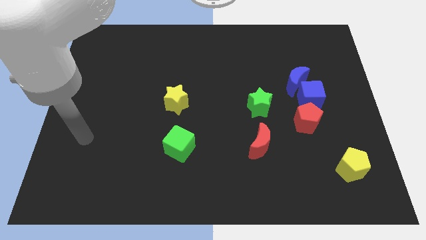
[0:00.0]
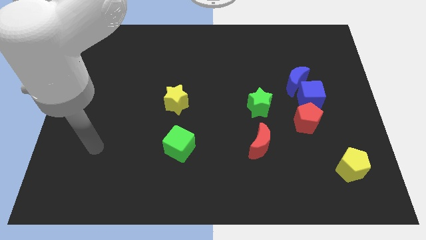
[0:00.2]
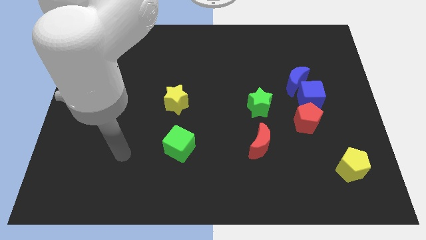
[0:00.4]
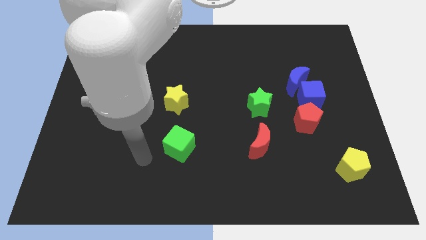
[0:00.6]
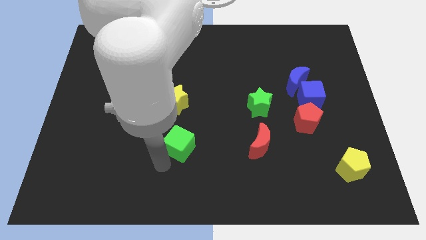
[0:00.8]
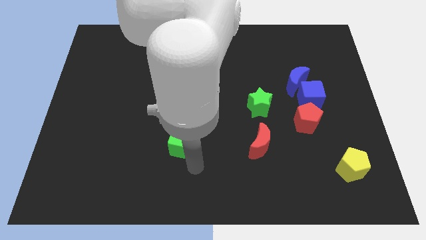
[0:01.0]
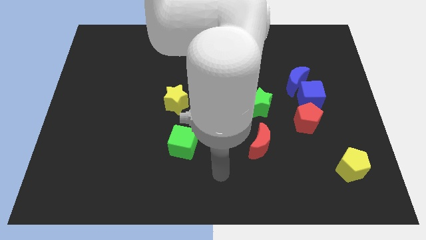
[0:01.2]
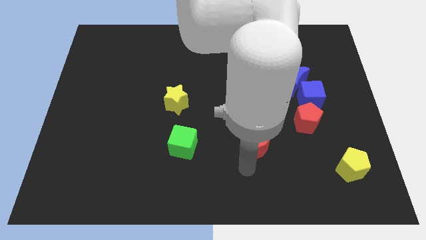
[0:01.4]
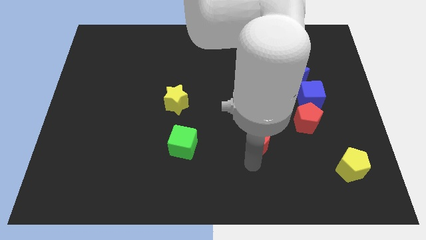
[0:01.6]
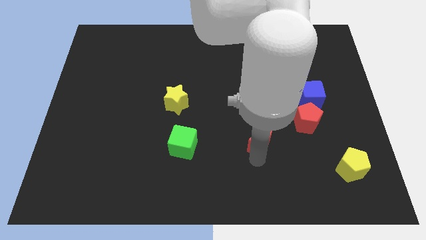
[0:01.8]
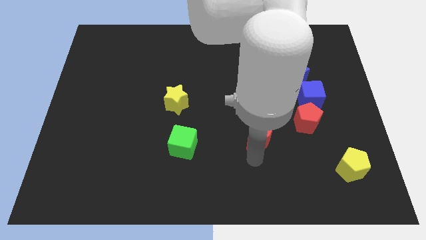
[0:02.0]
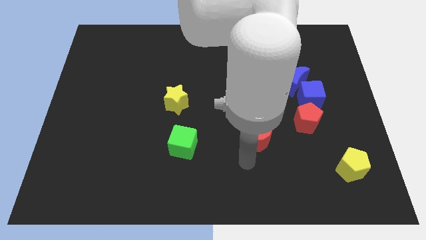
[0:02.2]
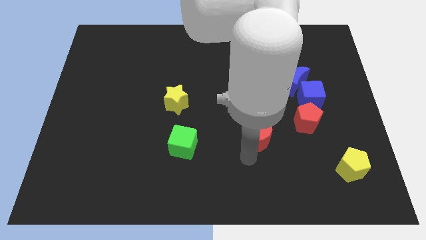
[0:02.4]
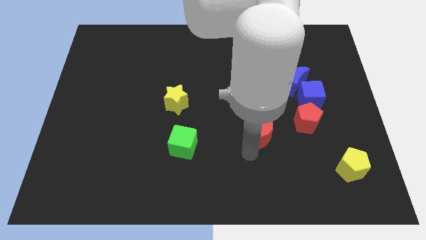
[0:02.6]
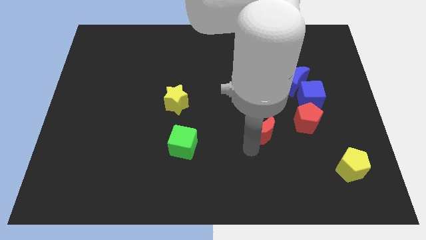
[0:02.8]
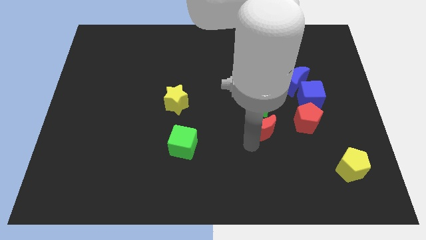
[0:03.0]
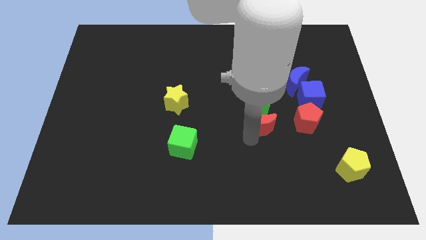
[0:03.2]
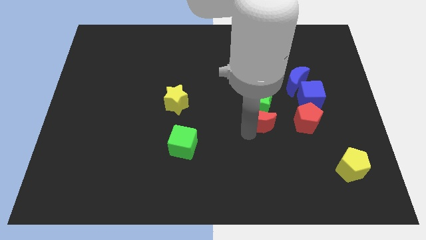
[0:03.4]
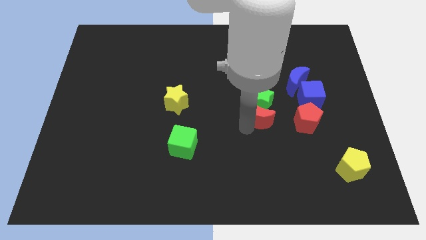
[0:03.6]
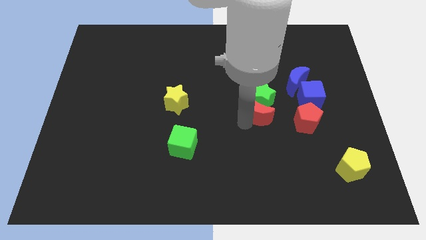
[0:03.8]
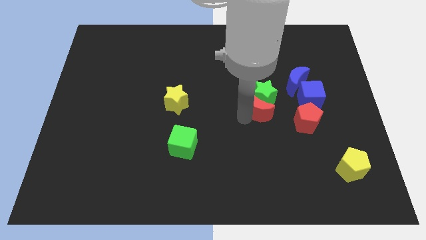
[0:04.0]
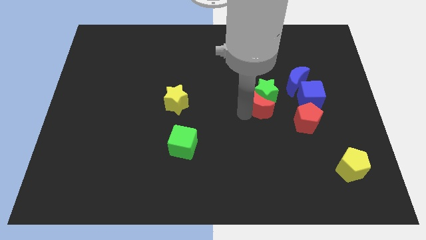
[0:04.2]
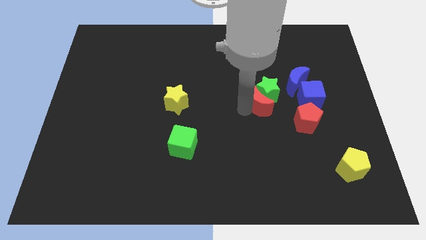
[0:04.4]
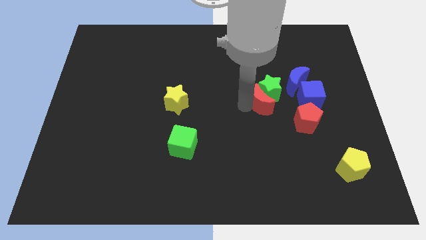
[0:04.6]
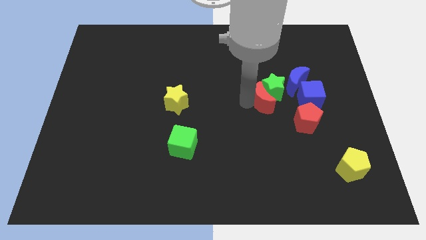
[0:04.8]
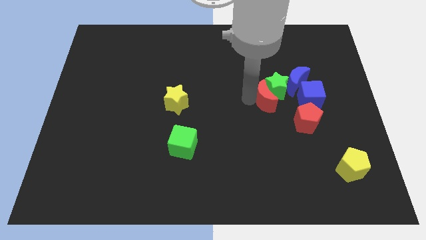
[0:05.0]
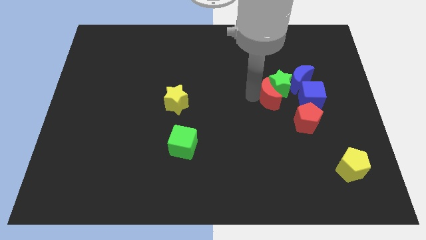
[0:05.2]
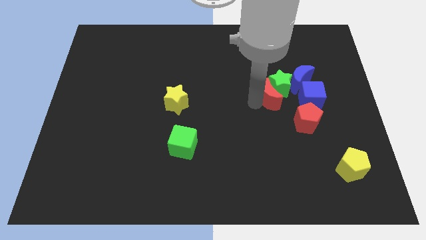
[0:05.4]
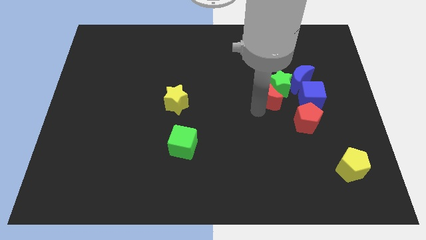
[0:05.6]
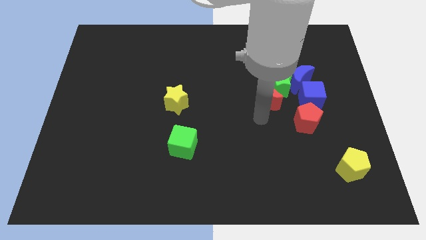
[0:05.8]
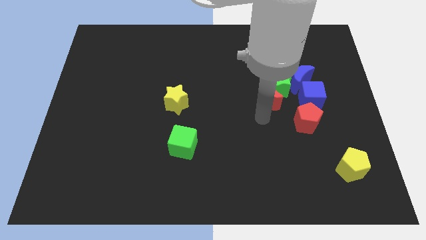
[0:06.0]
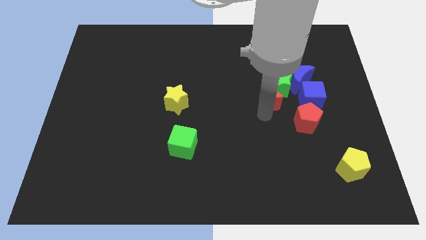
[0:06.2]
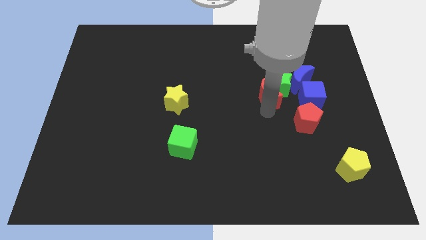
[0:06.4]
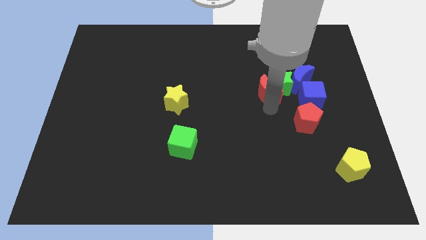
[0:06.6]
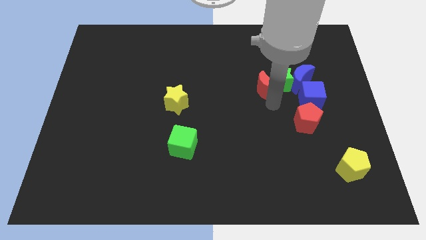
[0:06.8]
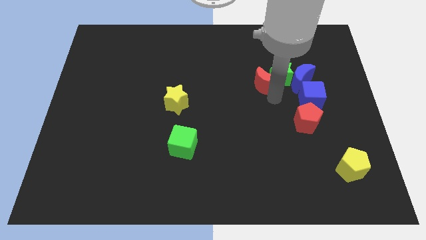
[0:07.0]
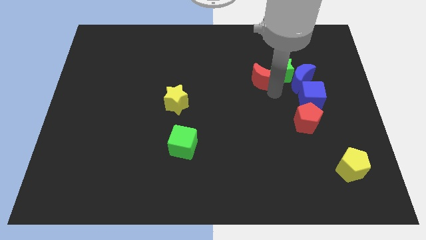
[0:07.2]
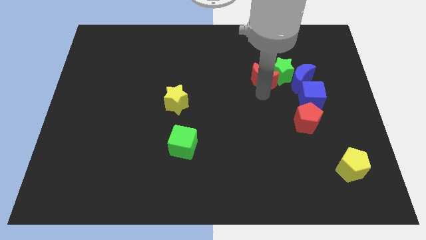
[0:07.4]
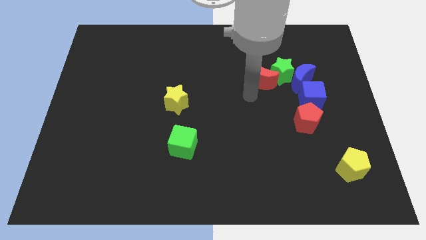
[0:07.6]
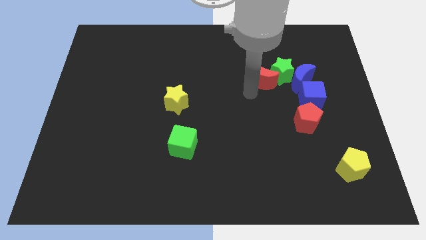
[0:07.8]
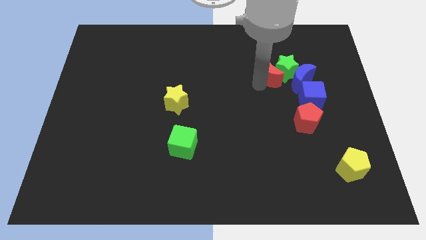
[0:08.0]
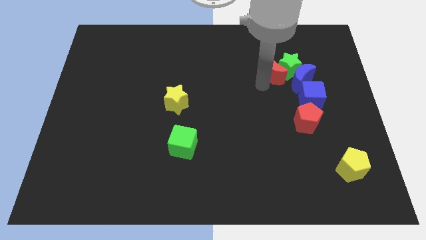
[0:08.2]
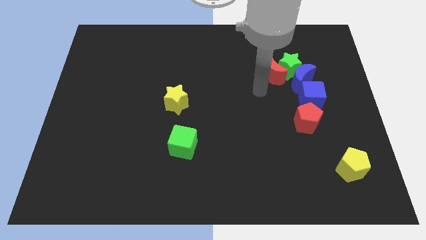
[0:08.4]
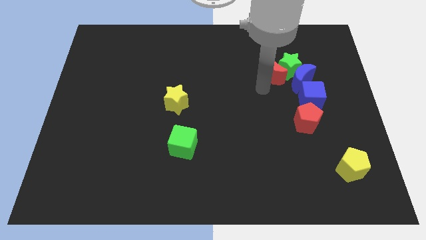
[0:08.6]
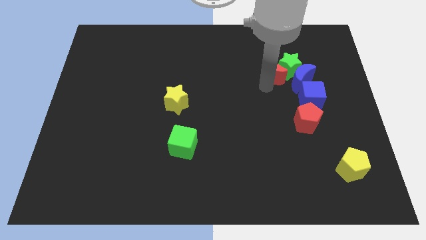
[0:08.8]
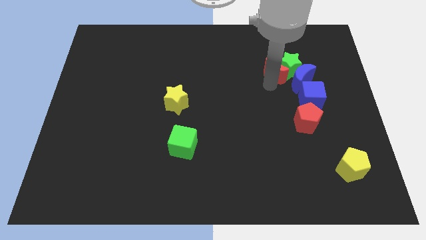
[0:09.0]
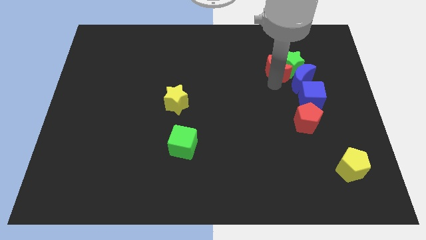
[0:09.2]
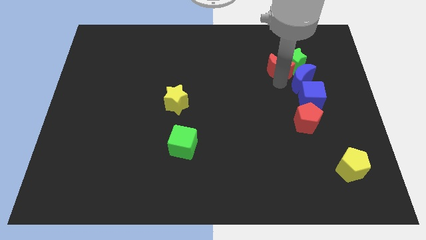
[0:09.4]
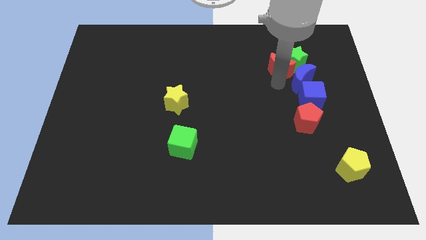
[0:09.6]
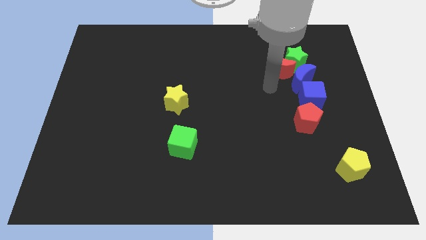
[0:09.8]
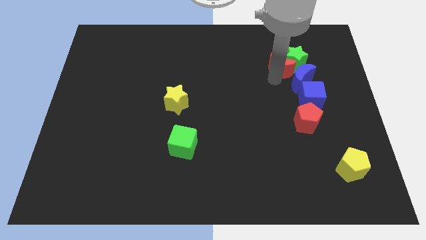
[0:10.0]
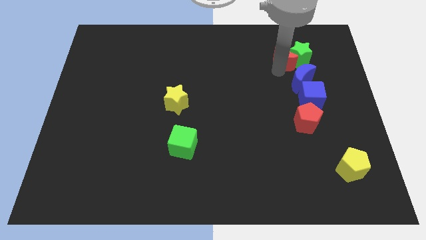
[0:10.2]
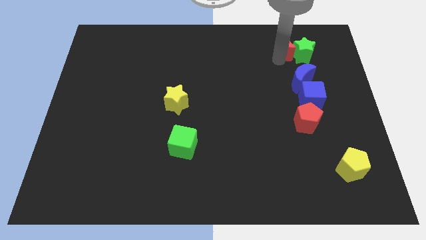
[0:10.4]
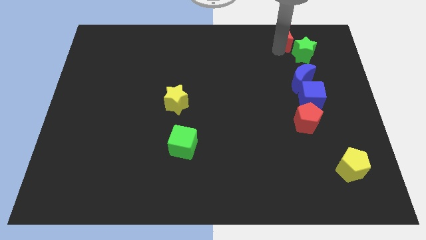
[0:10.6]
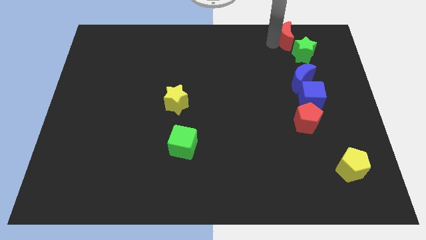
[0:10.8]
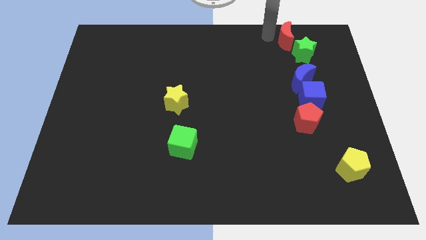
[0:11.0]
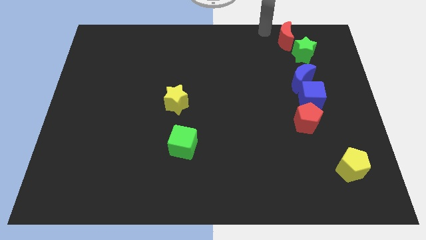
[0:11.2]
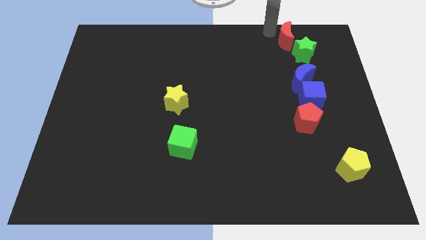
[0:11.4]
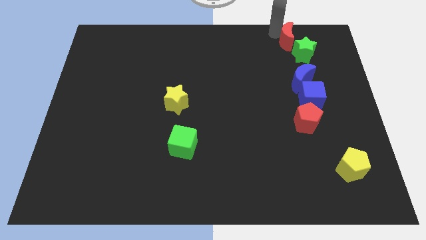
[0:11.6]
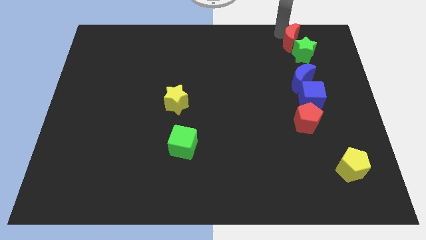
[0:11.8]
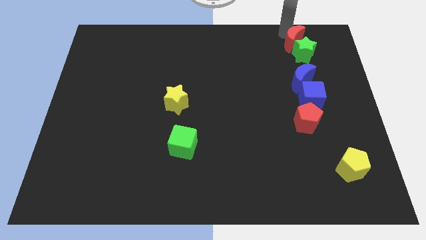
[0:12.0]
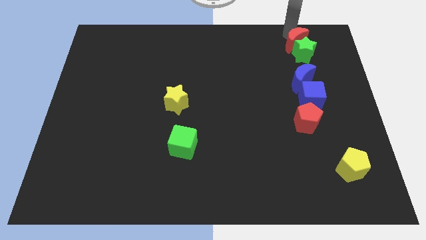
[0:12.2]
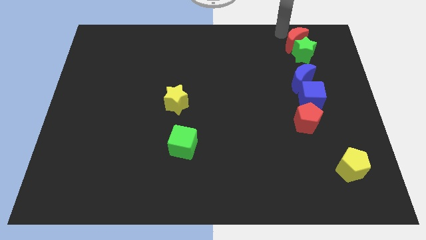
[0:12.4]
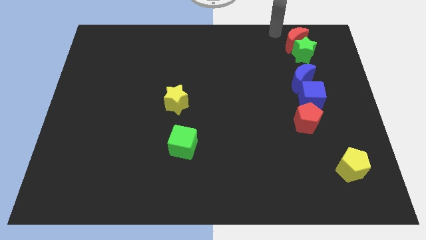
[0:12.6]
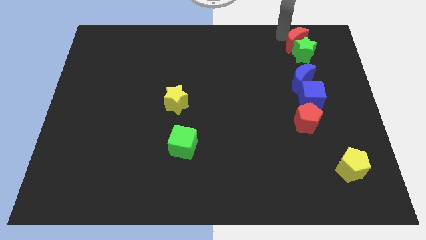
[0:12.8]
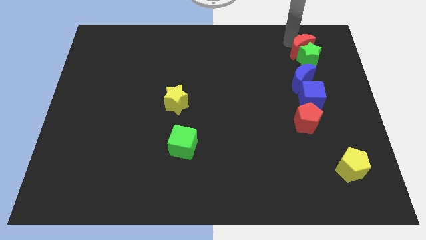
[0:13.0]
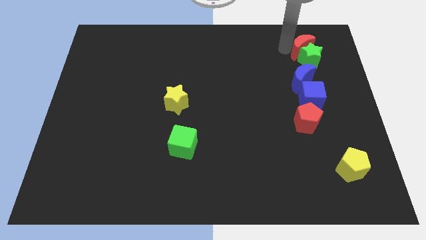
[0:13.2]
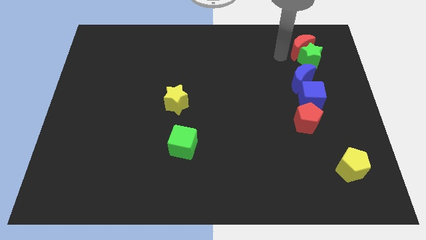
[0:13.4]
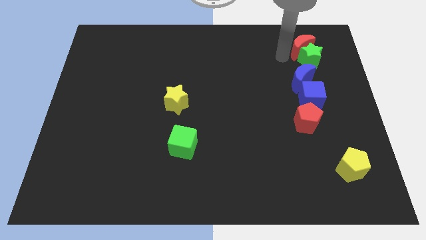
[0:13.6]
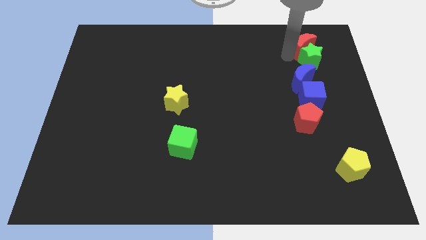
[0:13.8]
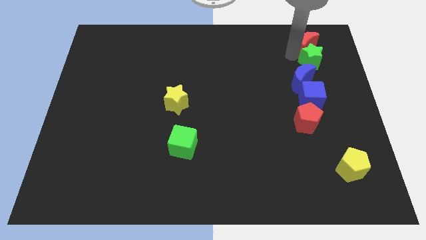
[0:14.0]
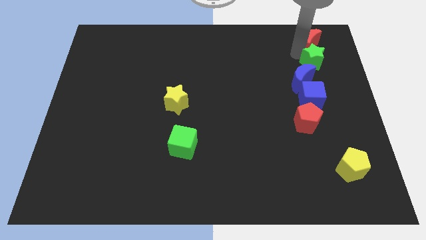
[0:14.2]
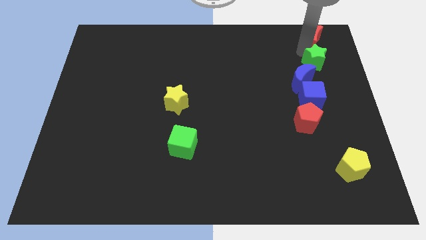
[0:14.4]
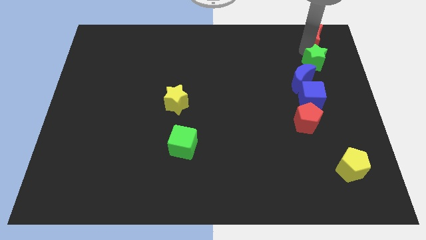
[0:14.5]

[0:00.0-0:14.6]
push the red moon to the top right corner
